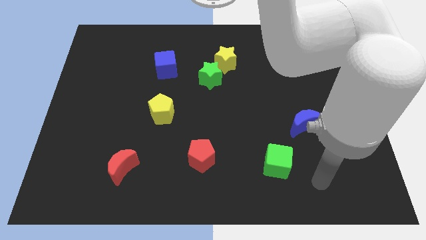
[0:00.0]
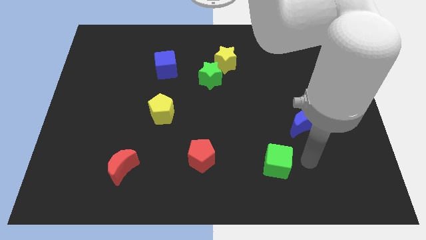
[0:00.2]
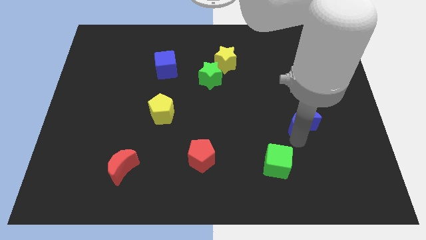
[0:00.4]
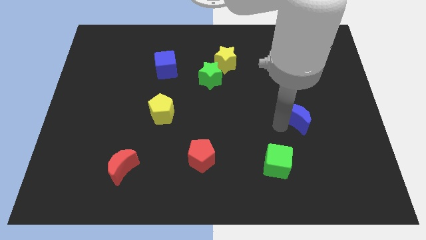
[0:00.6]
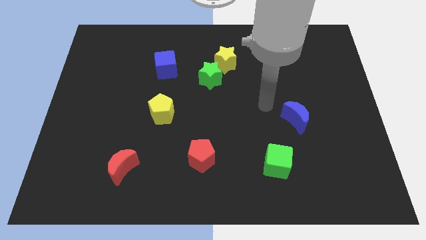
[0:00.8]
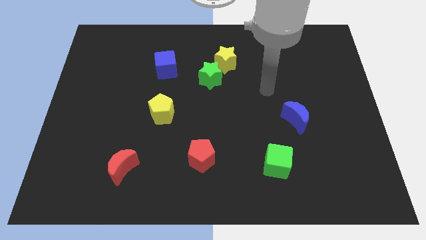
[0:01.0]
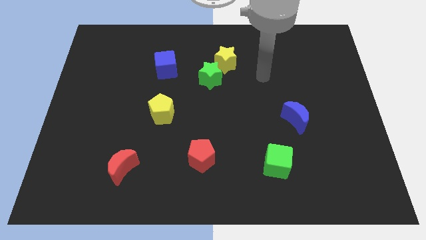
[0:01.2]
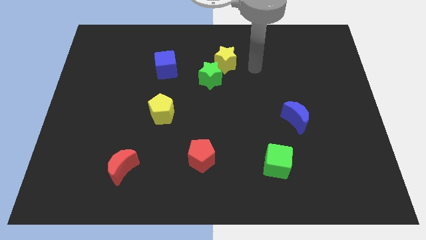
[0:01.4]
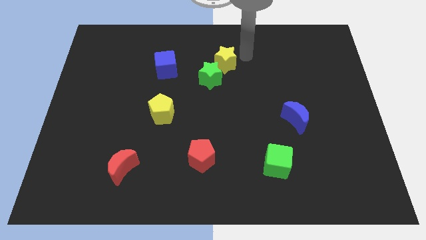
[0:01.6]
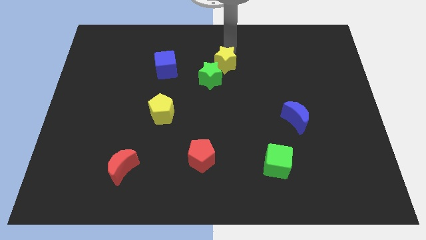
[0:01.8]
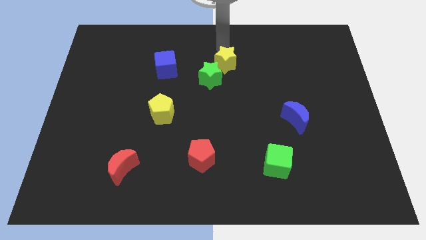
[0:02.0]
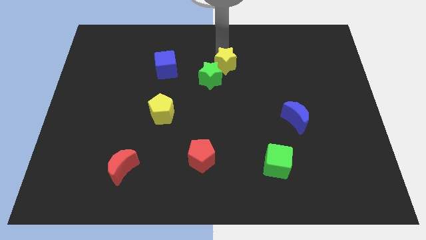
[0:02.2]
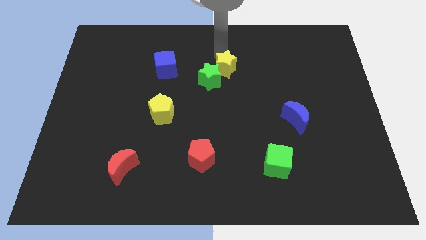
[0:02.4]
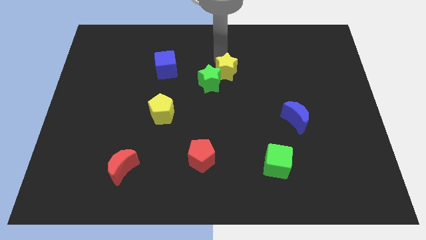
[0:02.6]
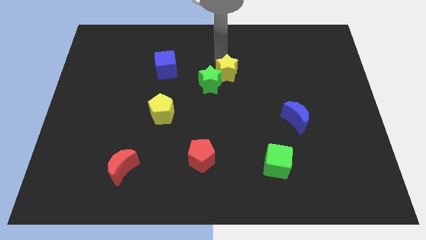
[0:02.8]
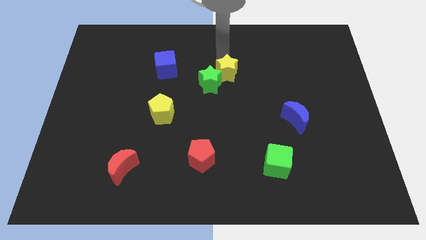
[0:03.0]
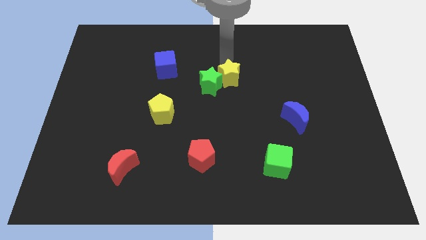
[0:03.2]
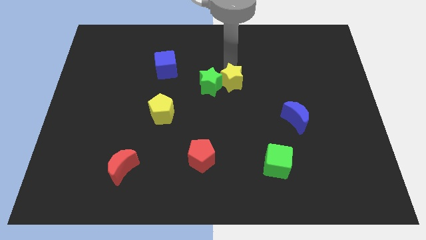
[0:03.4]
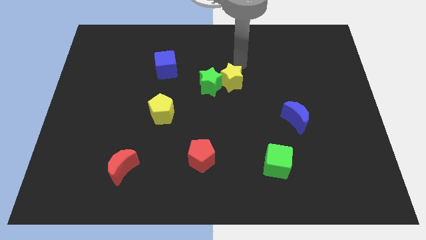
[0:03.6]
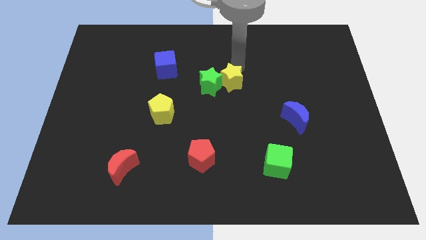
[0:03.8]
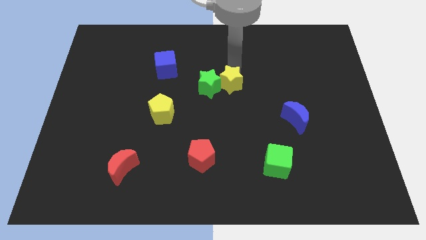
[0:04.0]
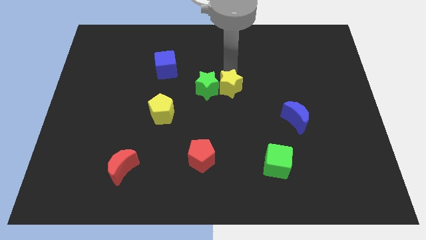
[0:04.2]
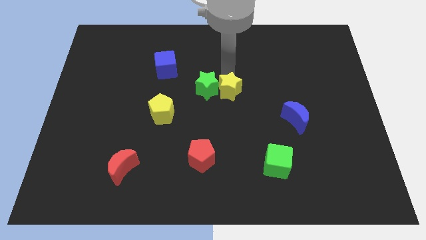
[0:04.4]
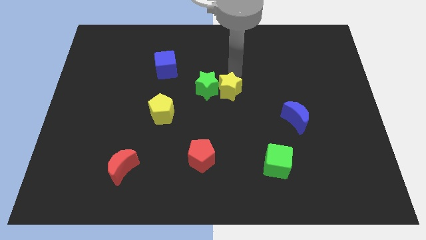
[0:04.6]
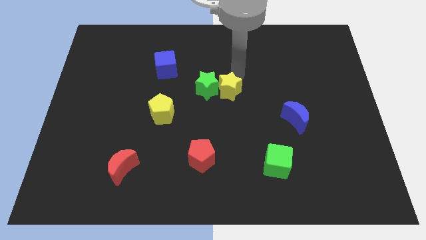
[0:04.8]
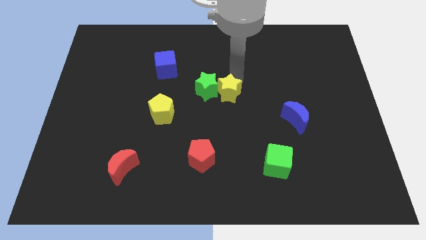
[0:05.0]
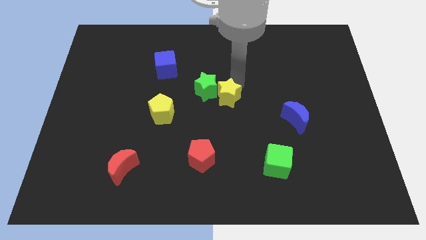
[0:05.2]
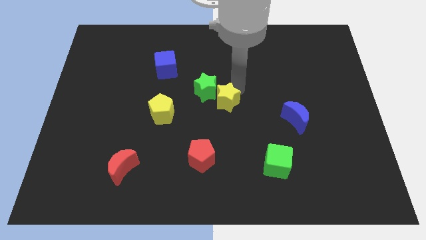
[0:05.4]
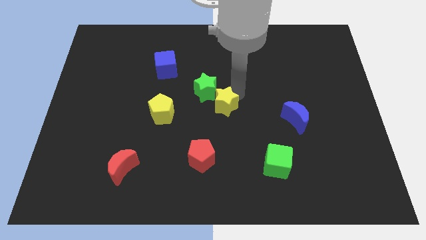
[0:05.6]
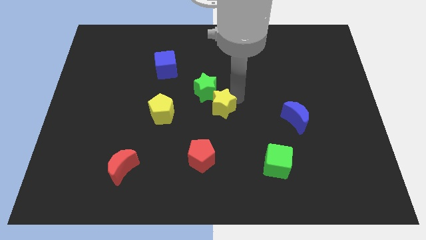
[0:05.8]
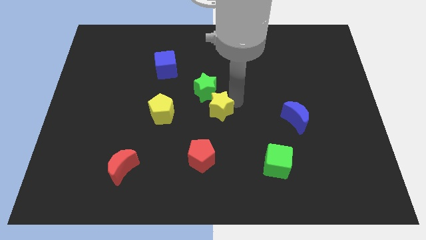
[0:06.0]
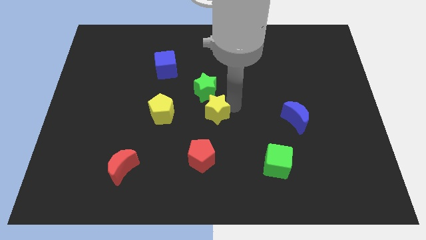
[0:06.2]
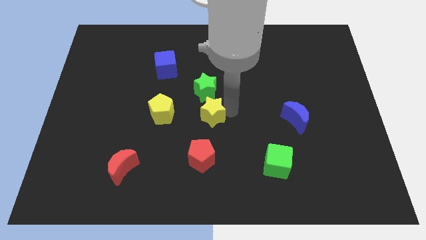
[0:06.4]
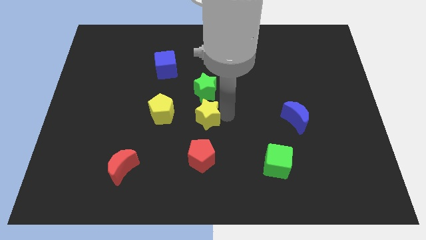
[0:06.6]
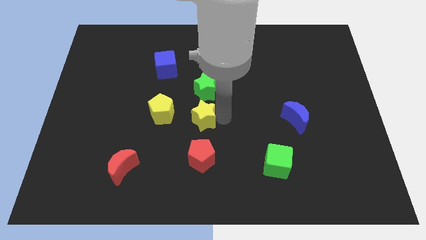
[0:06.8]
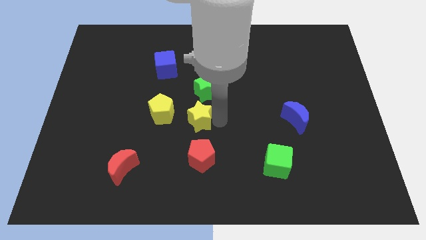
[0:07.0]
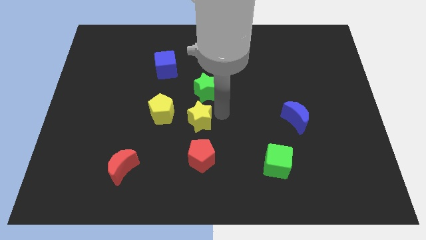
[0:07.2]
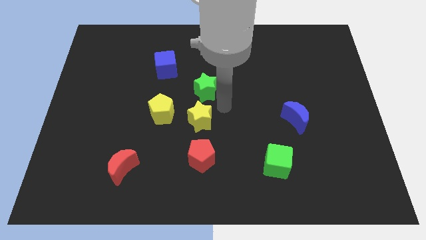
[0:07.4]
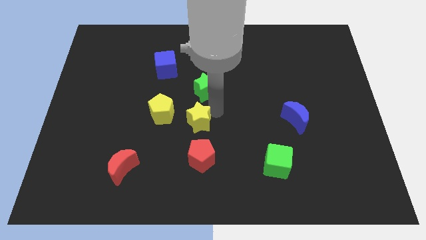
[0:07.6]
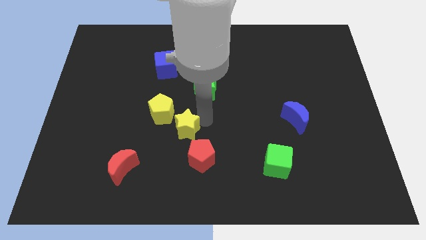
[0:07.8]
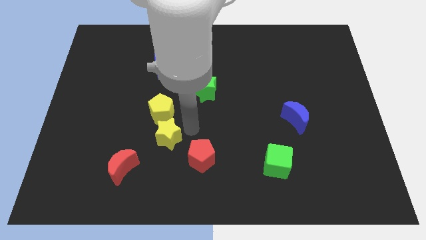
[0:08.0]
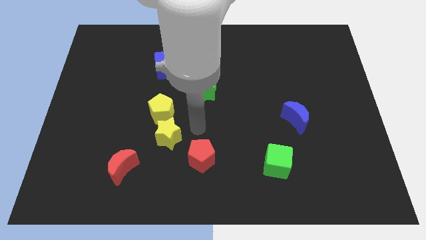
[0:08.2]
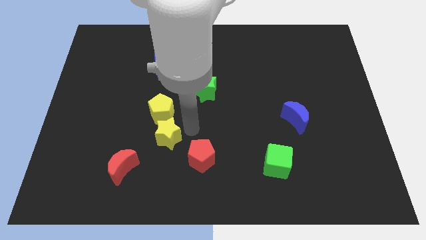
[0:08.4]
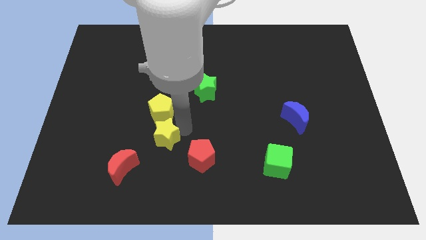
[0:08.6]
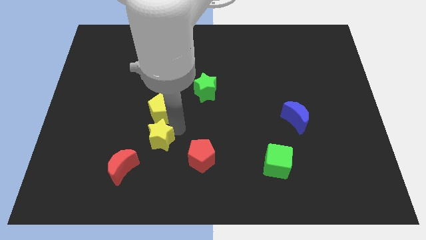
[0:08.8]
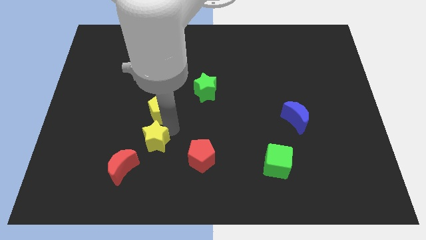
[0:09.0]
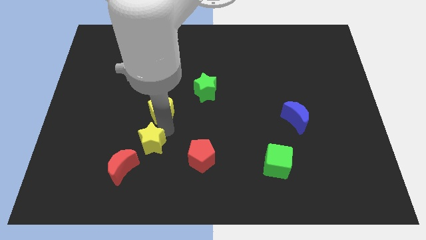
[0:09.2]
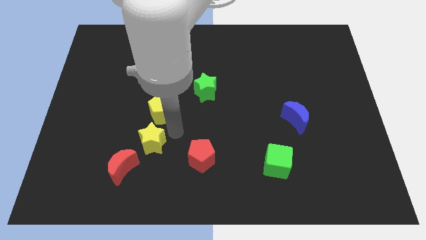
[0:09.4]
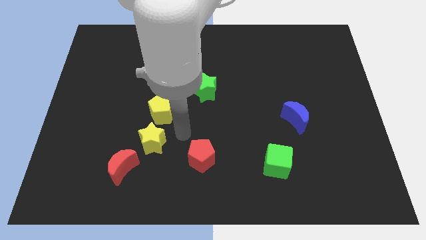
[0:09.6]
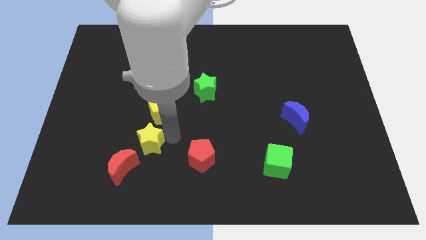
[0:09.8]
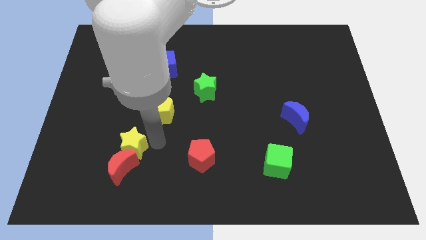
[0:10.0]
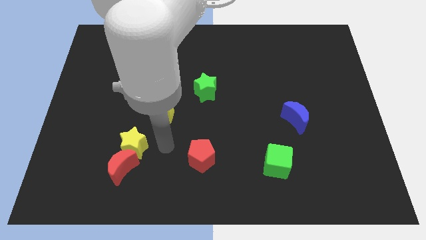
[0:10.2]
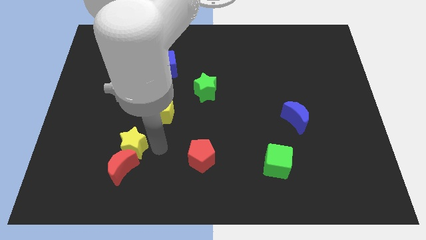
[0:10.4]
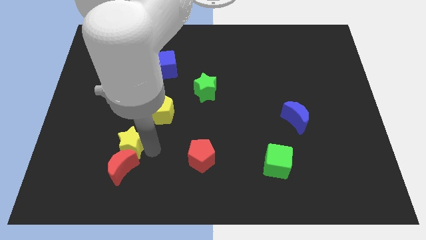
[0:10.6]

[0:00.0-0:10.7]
push the yellow star to the top left of the red moon

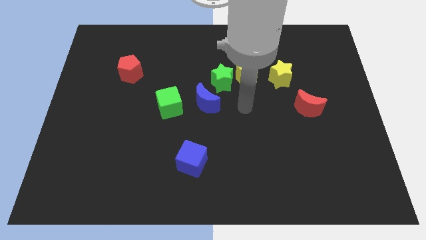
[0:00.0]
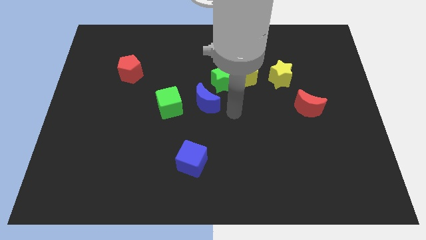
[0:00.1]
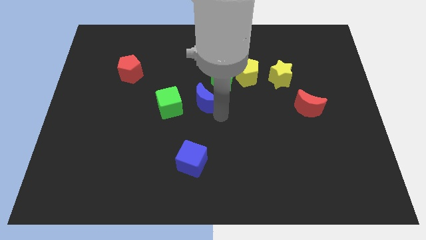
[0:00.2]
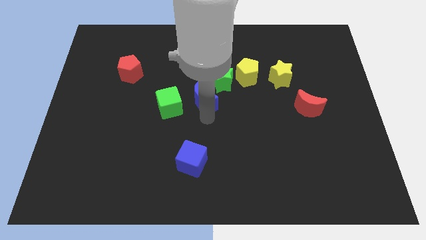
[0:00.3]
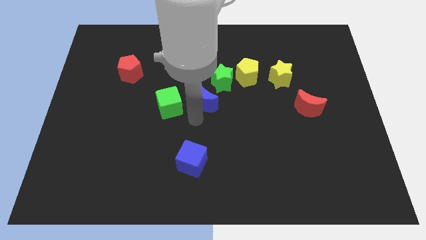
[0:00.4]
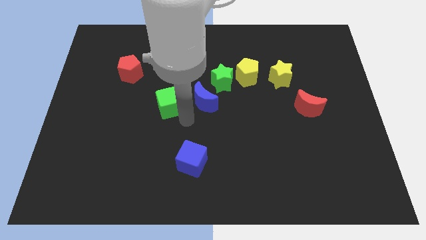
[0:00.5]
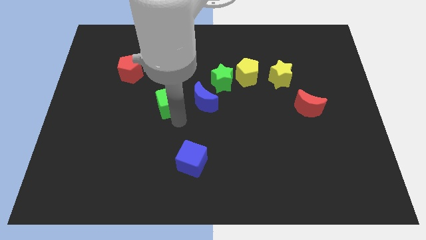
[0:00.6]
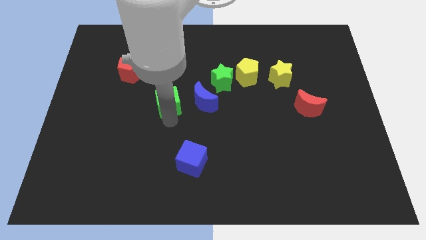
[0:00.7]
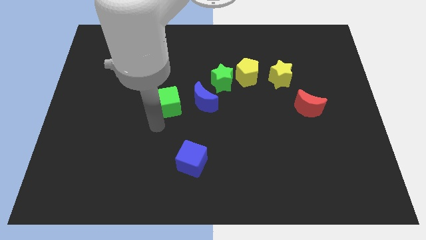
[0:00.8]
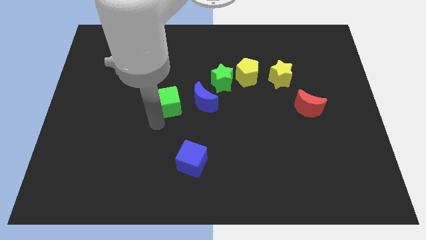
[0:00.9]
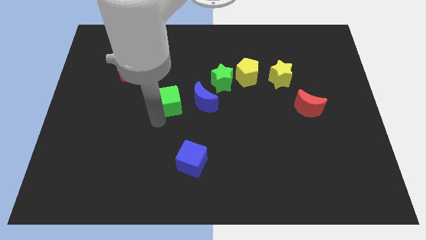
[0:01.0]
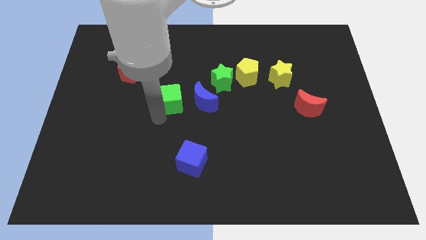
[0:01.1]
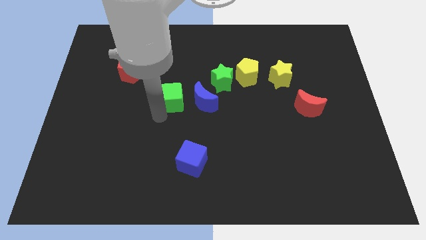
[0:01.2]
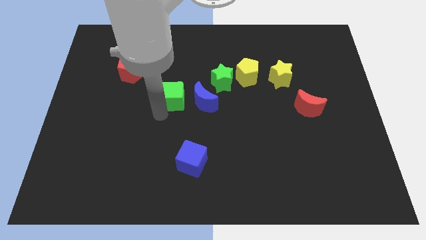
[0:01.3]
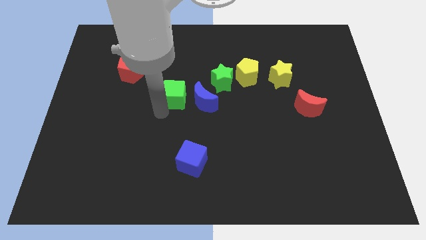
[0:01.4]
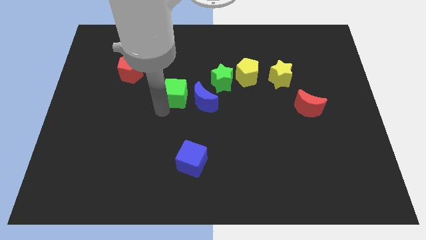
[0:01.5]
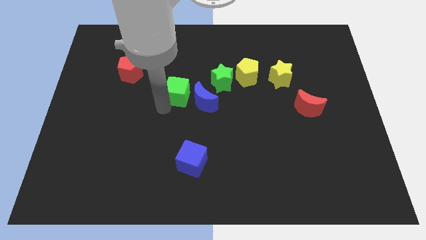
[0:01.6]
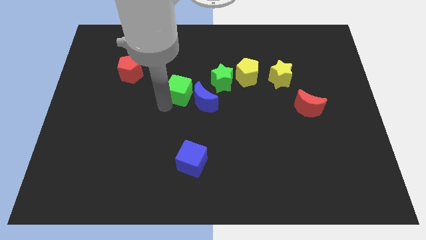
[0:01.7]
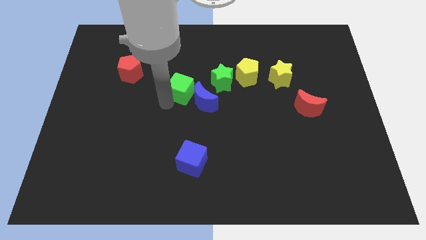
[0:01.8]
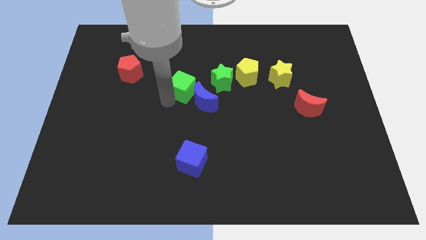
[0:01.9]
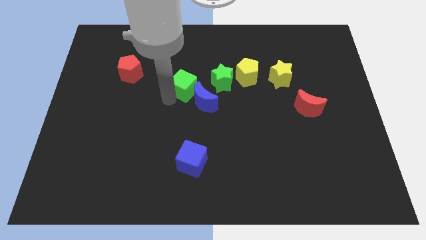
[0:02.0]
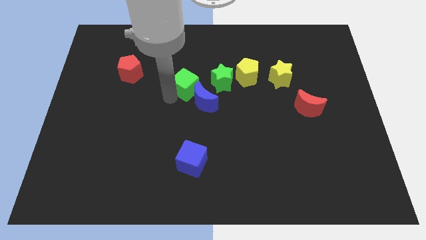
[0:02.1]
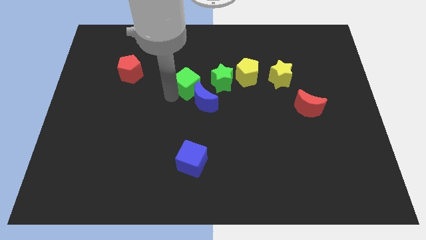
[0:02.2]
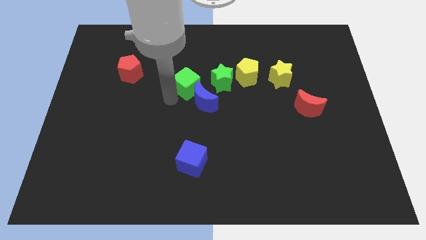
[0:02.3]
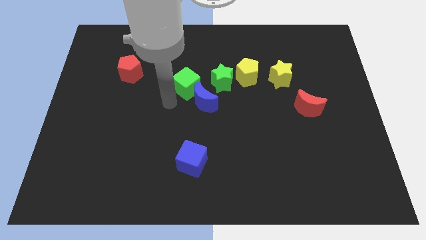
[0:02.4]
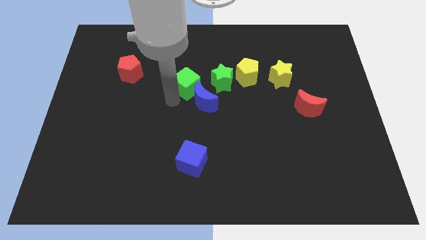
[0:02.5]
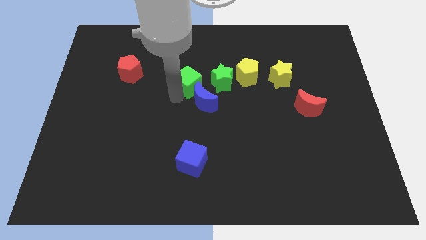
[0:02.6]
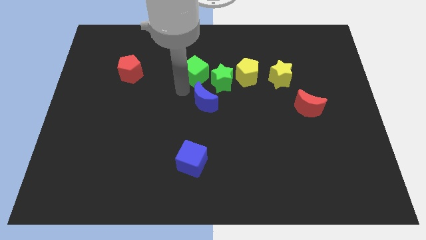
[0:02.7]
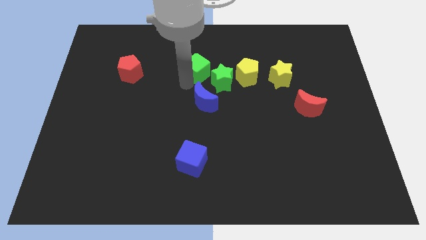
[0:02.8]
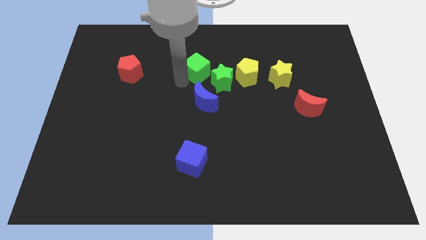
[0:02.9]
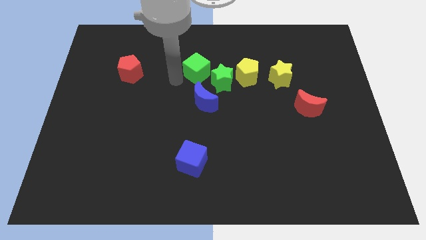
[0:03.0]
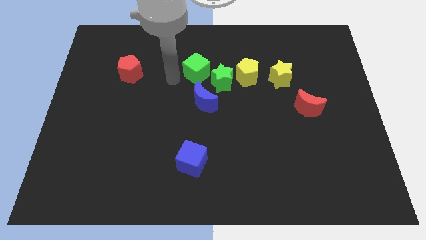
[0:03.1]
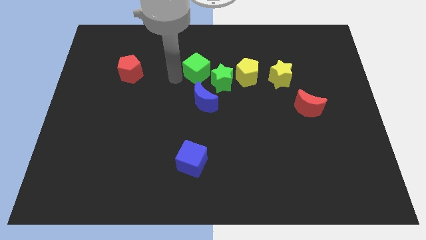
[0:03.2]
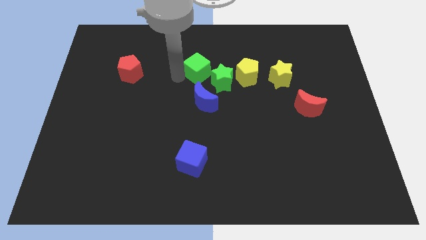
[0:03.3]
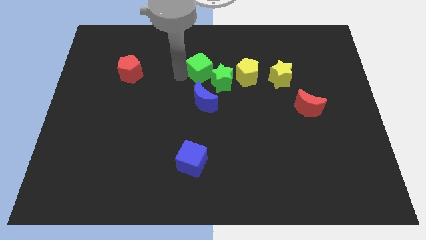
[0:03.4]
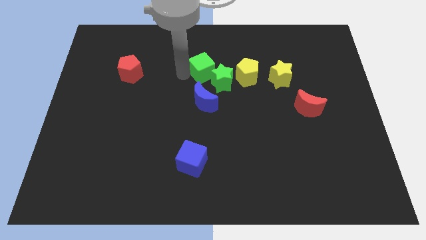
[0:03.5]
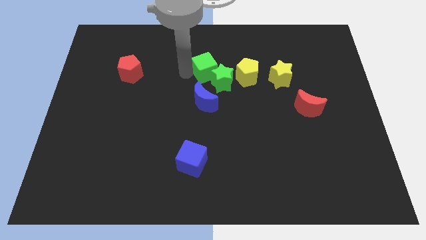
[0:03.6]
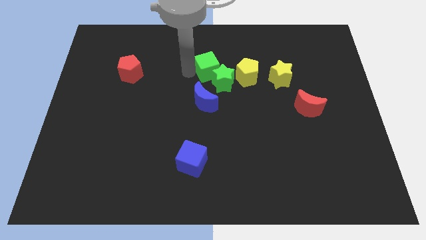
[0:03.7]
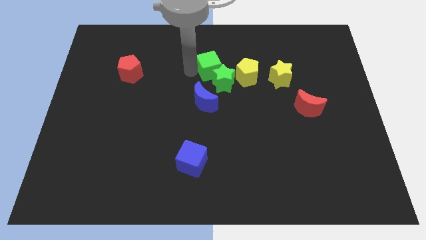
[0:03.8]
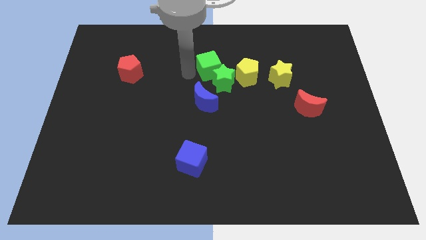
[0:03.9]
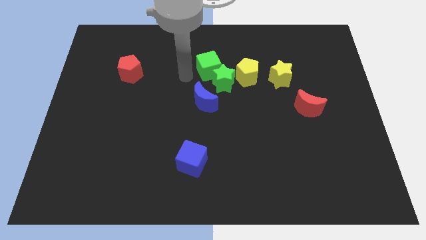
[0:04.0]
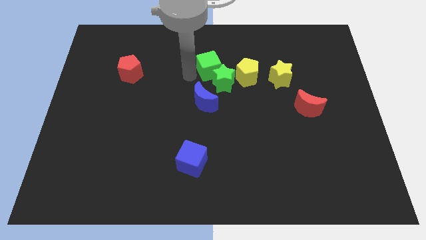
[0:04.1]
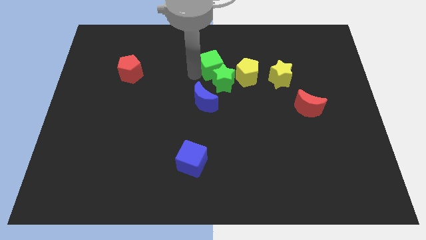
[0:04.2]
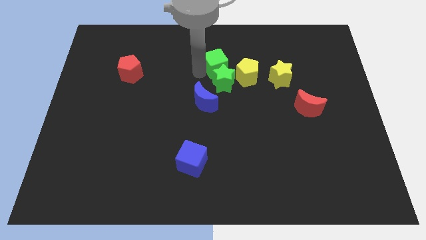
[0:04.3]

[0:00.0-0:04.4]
push the green cube diagonally up and to the right of the green star
